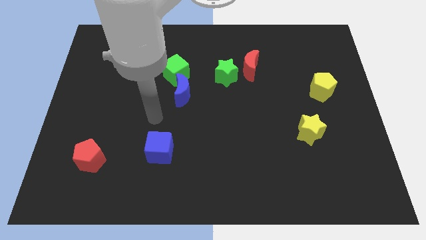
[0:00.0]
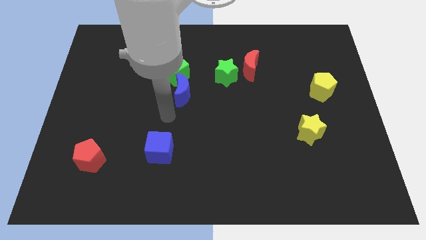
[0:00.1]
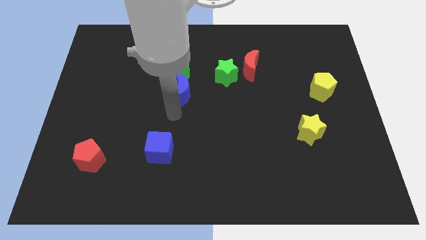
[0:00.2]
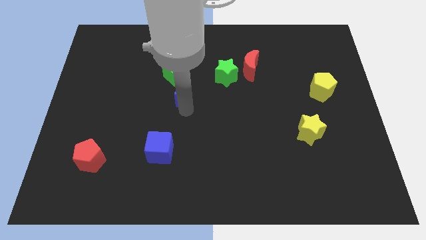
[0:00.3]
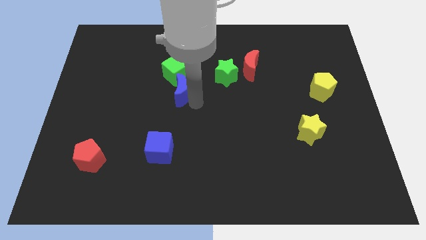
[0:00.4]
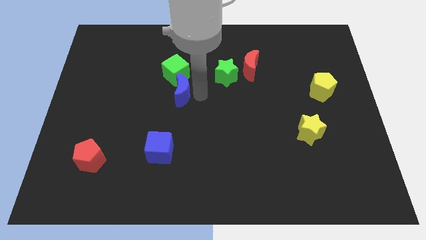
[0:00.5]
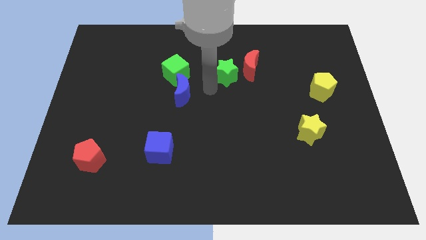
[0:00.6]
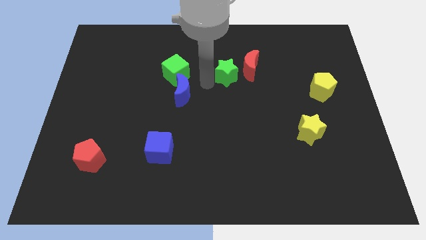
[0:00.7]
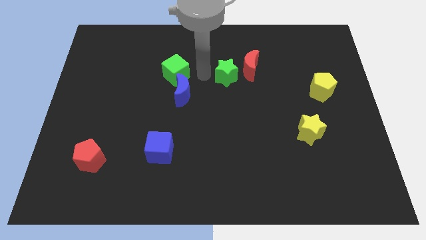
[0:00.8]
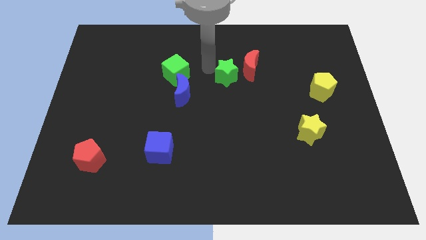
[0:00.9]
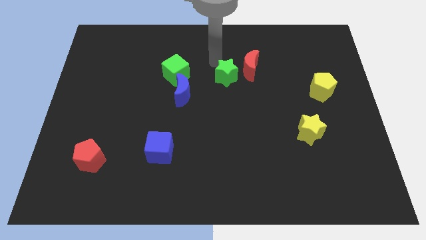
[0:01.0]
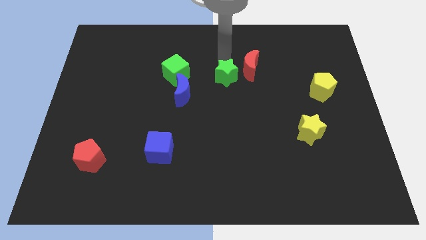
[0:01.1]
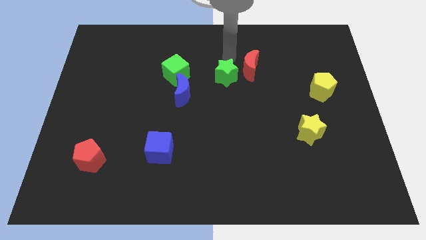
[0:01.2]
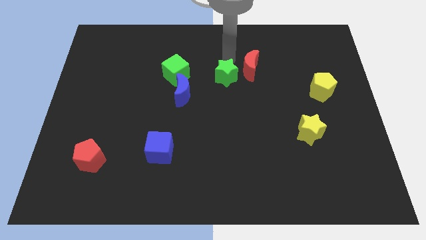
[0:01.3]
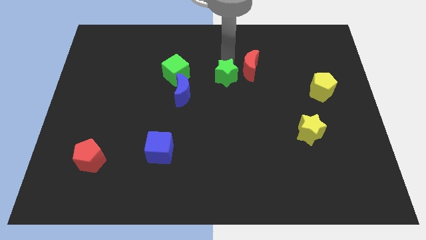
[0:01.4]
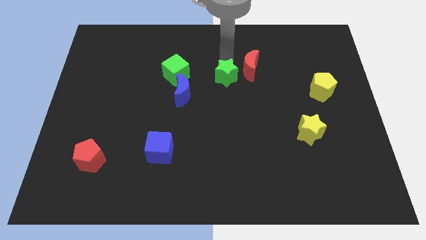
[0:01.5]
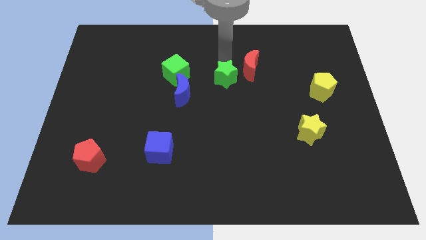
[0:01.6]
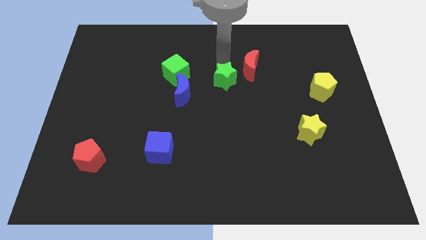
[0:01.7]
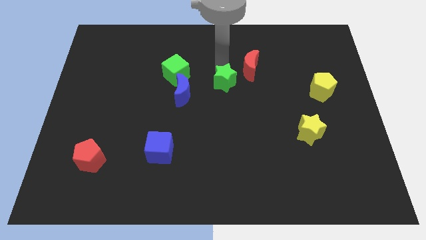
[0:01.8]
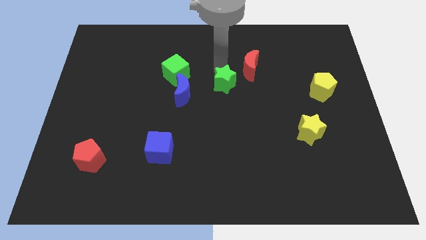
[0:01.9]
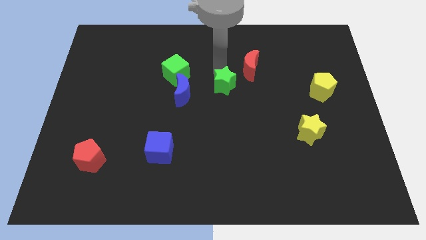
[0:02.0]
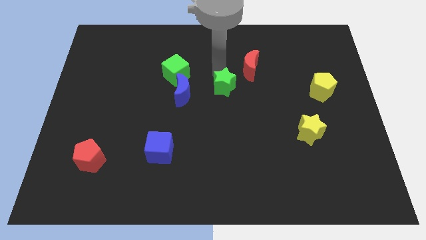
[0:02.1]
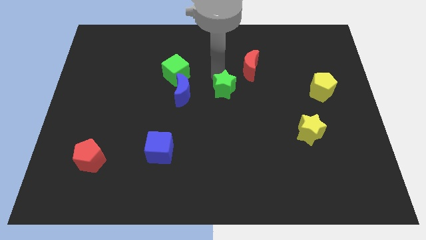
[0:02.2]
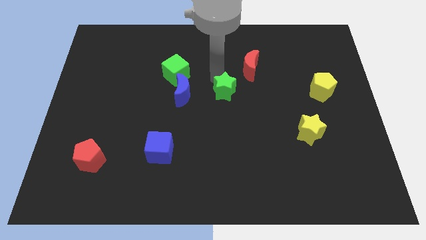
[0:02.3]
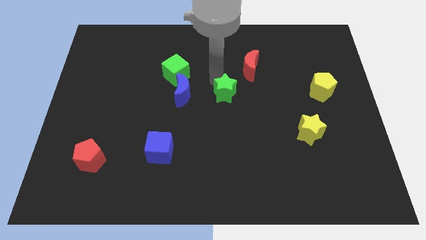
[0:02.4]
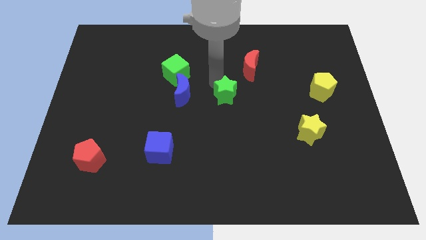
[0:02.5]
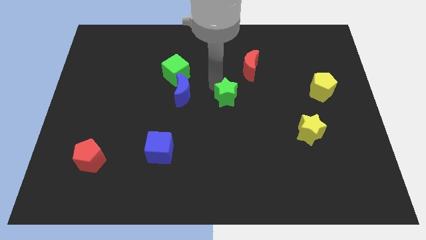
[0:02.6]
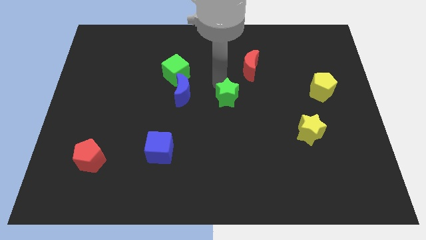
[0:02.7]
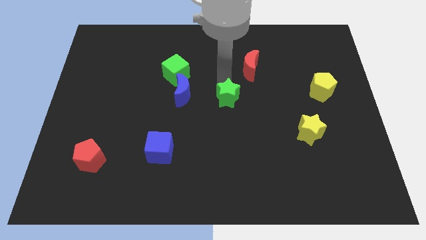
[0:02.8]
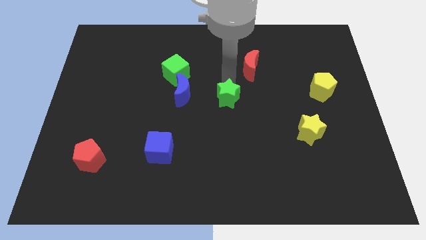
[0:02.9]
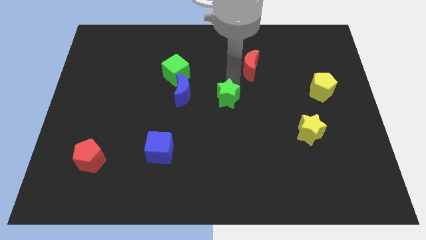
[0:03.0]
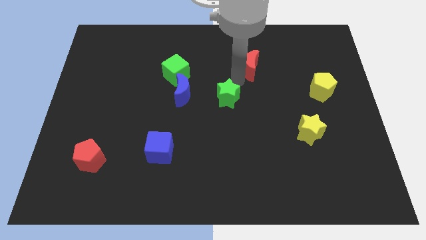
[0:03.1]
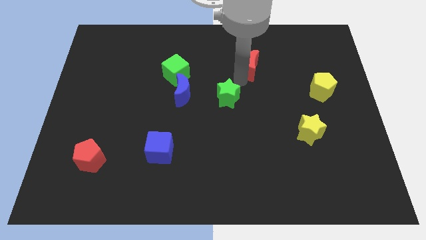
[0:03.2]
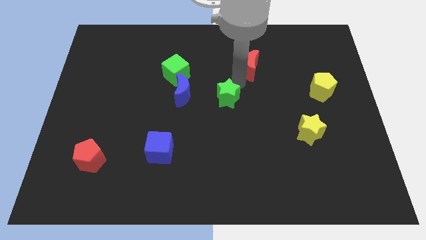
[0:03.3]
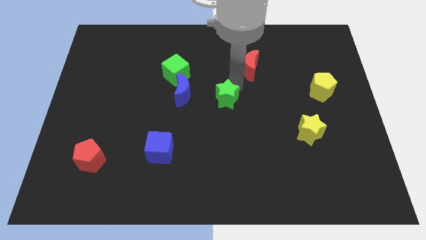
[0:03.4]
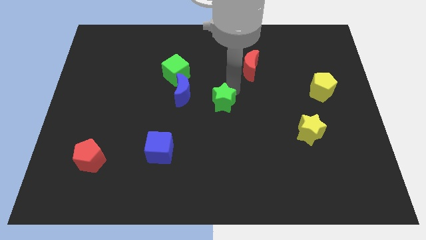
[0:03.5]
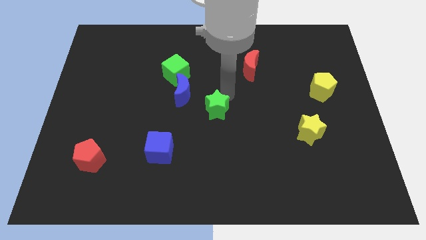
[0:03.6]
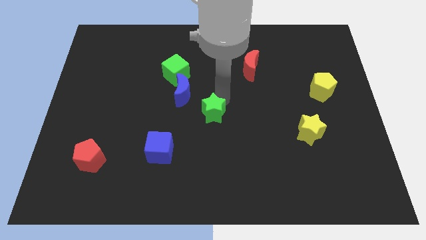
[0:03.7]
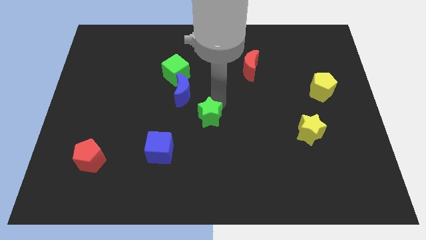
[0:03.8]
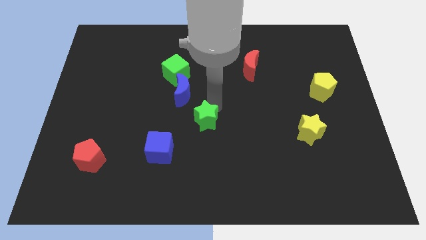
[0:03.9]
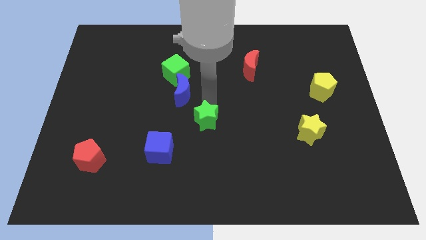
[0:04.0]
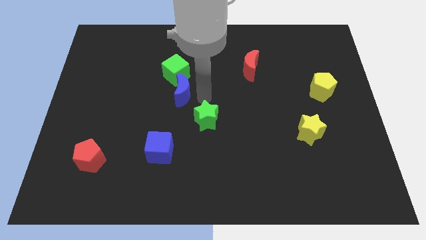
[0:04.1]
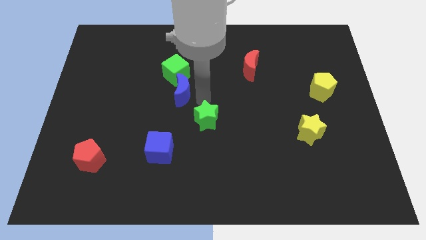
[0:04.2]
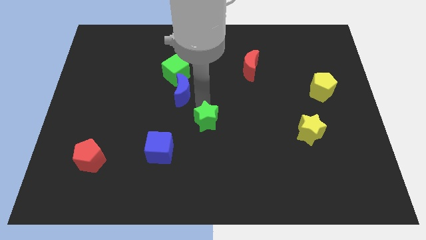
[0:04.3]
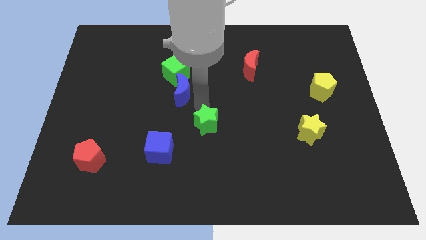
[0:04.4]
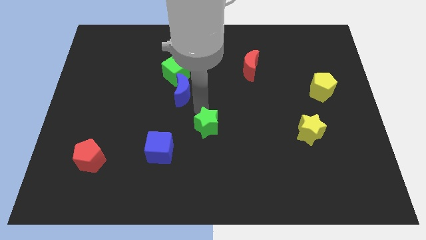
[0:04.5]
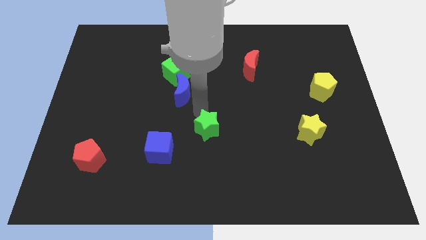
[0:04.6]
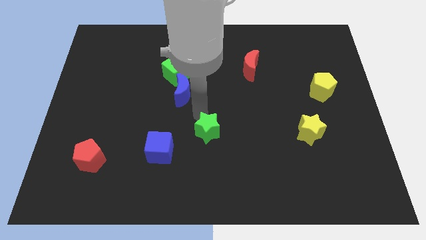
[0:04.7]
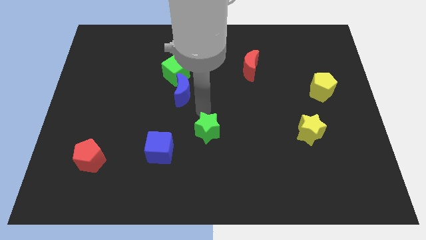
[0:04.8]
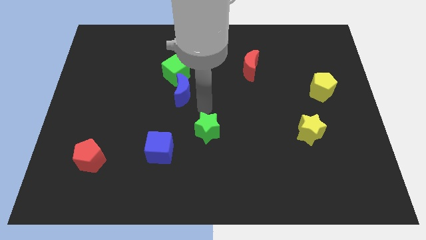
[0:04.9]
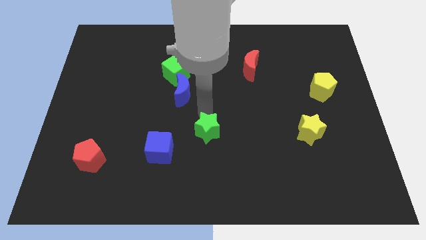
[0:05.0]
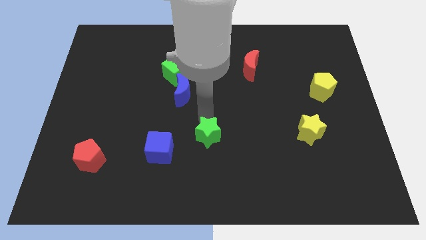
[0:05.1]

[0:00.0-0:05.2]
put the green star to the right side of the blue cube

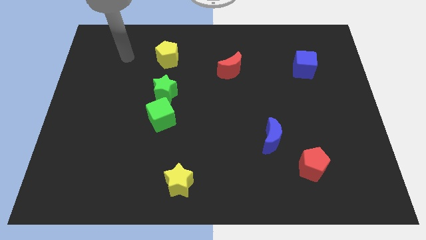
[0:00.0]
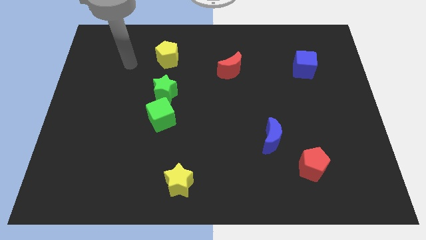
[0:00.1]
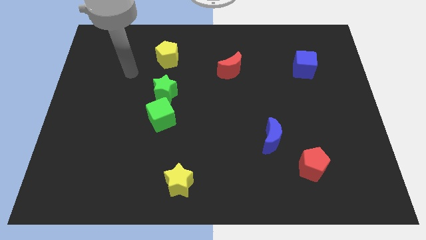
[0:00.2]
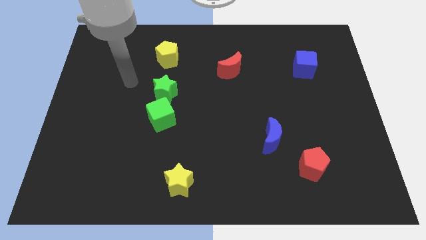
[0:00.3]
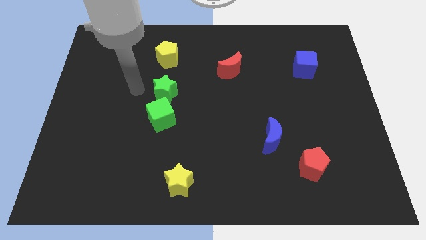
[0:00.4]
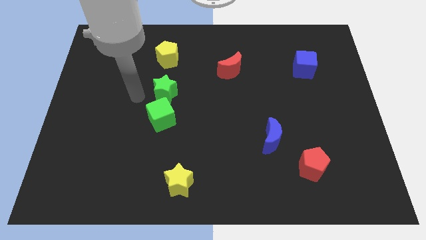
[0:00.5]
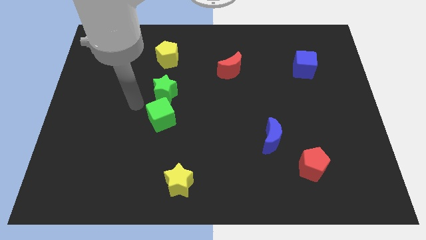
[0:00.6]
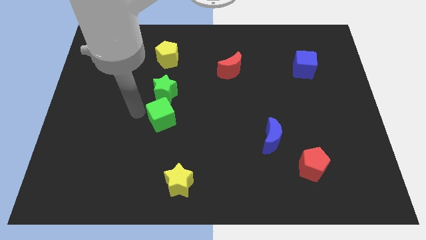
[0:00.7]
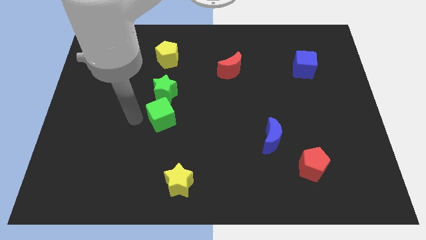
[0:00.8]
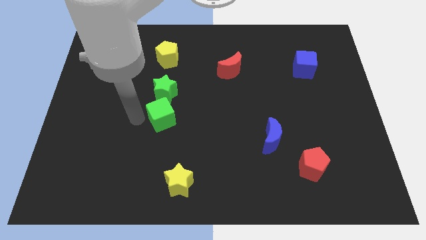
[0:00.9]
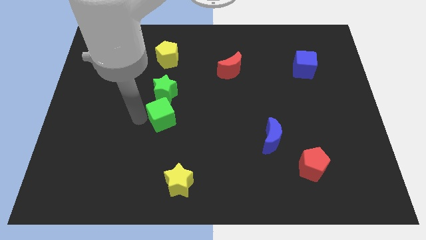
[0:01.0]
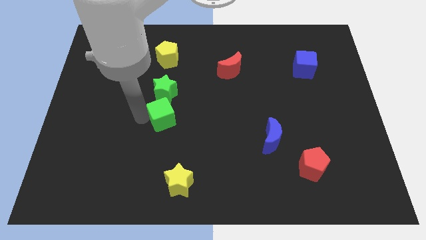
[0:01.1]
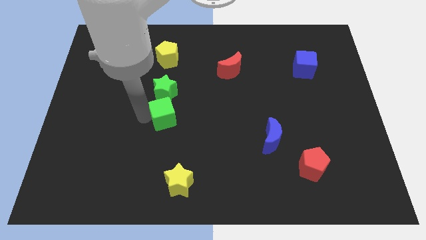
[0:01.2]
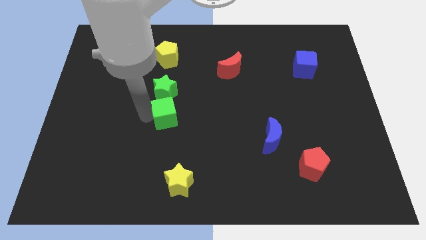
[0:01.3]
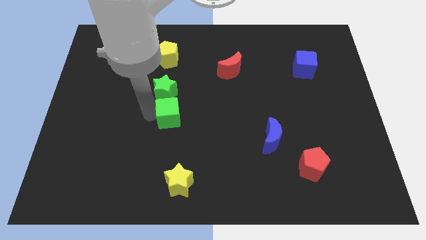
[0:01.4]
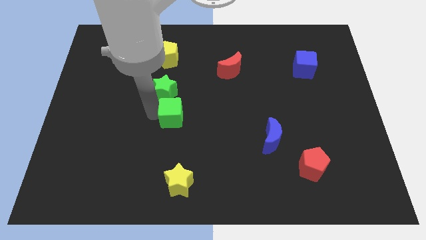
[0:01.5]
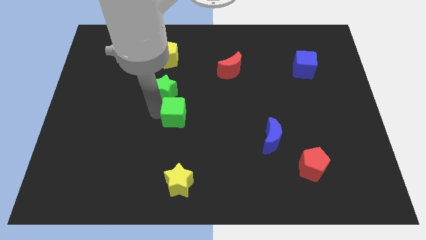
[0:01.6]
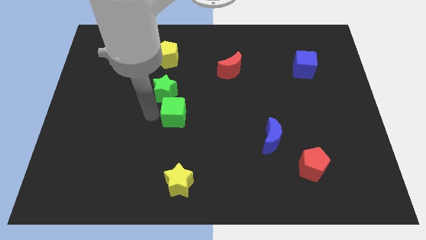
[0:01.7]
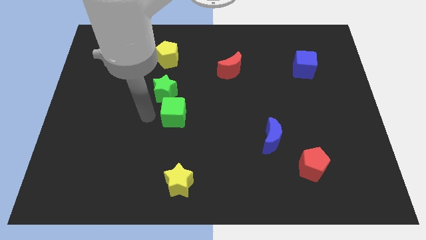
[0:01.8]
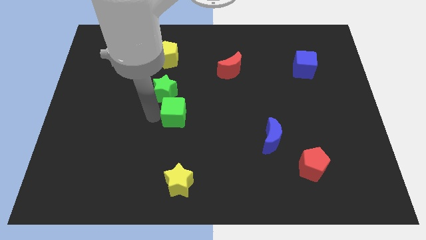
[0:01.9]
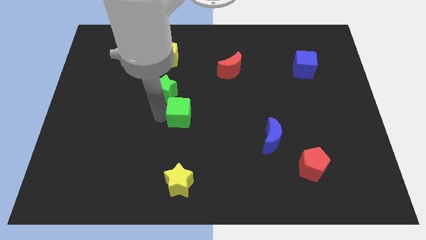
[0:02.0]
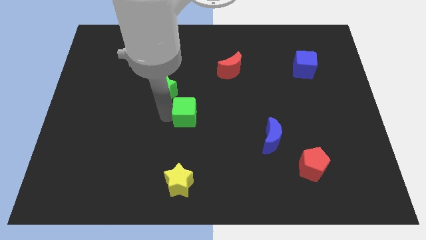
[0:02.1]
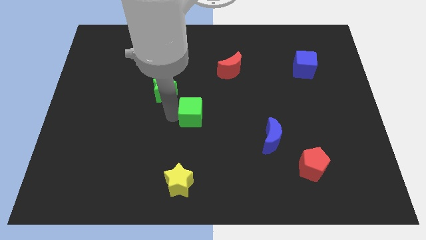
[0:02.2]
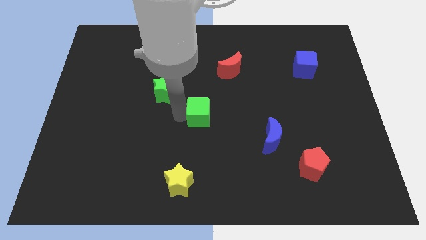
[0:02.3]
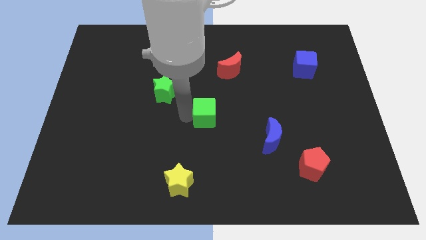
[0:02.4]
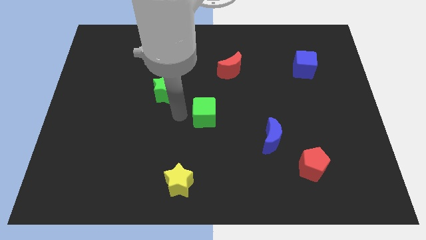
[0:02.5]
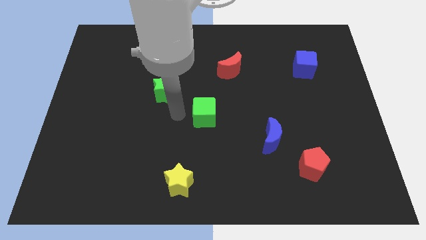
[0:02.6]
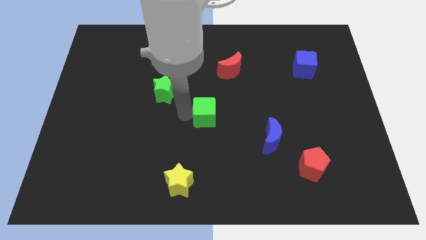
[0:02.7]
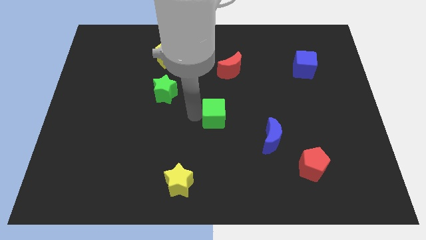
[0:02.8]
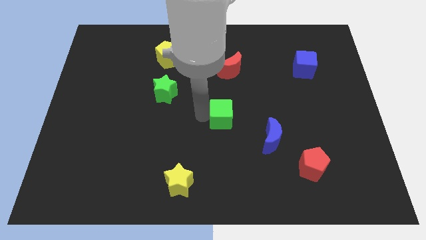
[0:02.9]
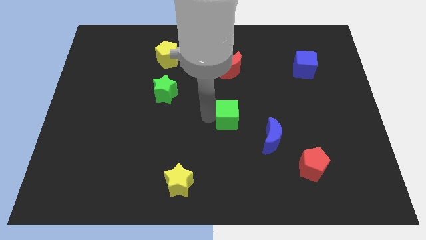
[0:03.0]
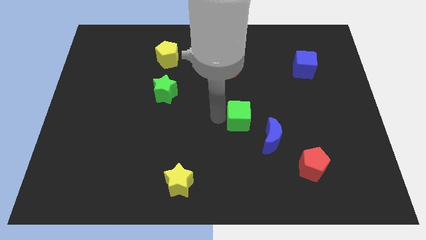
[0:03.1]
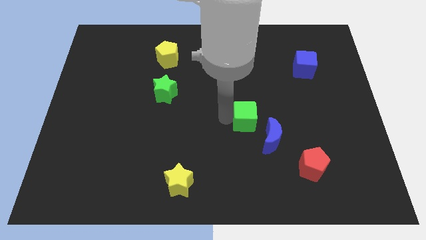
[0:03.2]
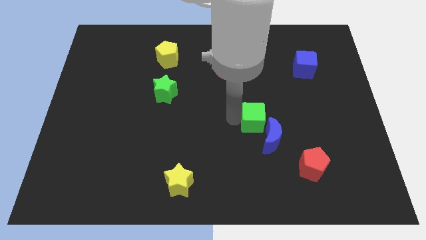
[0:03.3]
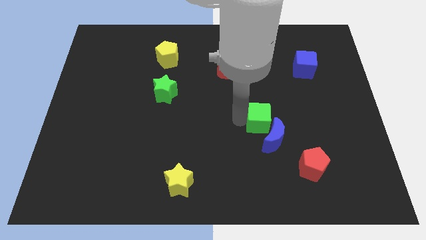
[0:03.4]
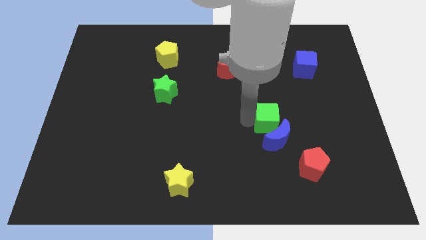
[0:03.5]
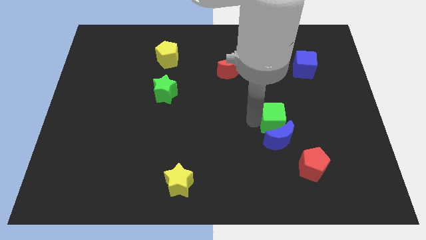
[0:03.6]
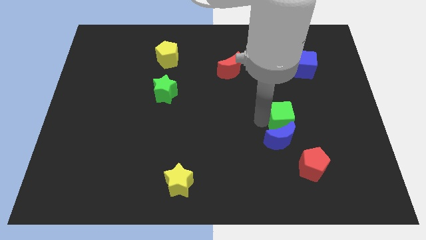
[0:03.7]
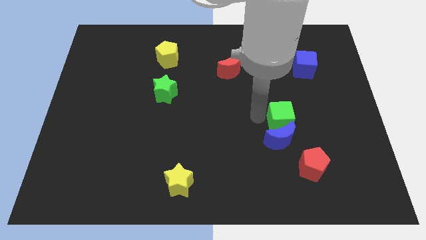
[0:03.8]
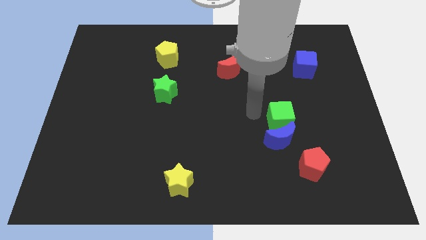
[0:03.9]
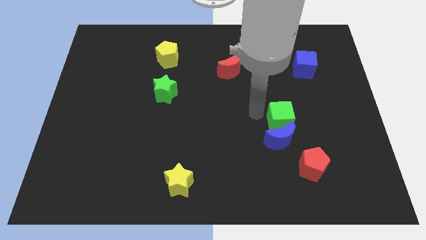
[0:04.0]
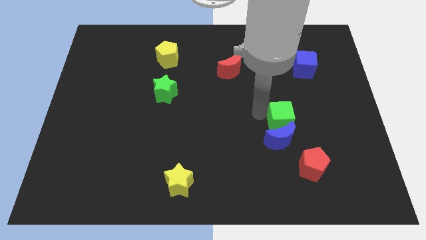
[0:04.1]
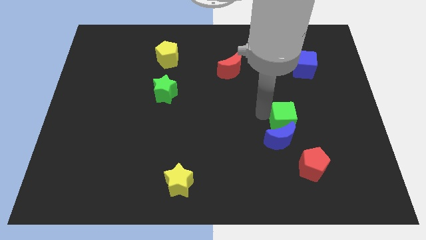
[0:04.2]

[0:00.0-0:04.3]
slide the green cube above the red pentagon
